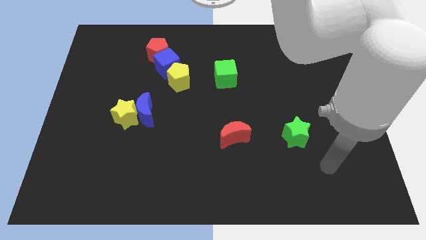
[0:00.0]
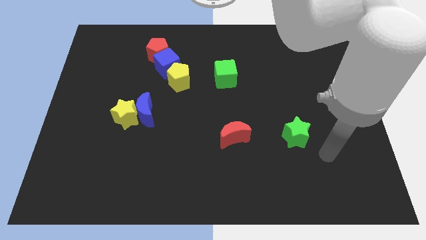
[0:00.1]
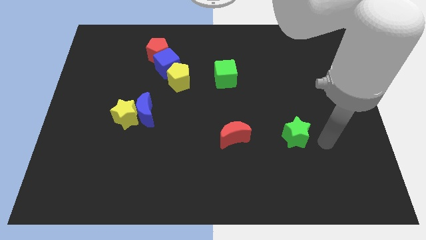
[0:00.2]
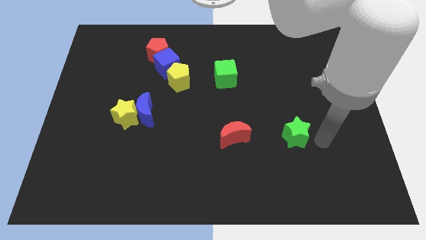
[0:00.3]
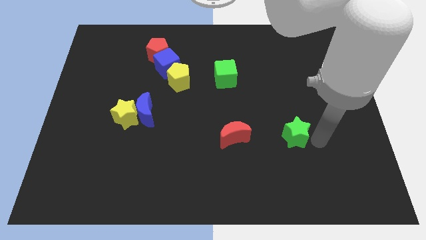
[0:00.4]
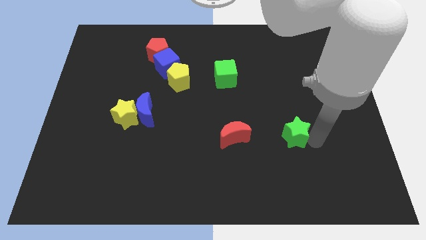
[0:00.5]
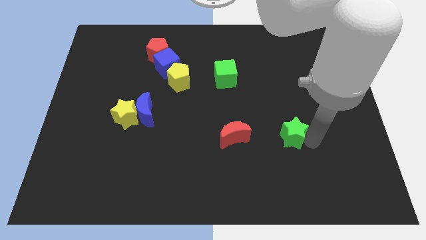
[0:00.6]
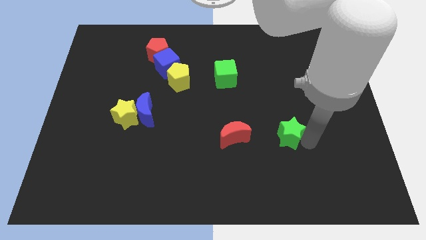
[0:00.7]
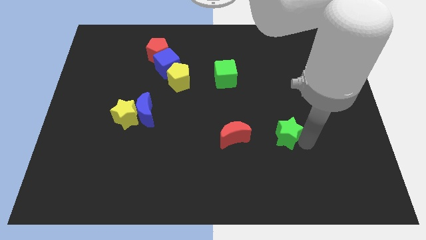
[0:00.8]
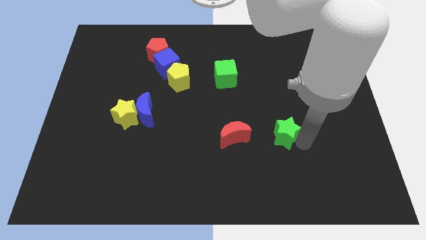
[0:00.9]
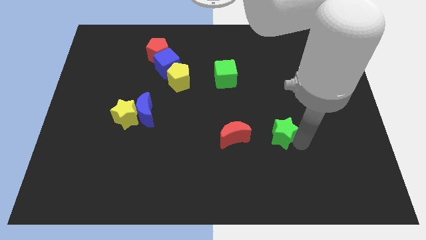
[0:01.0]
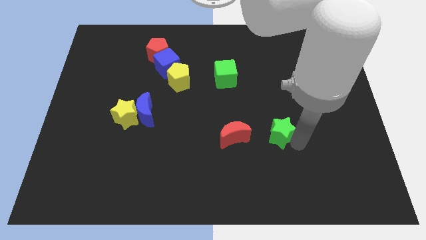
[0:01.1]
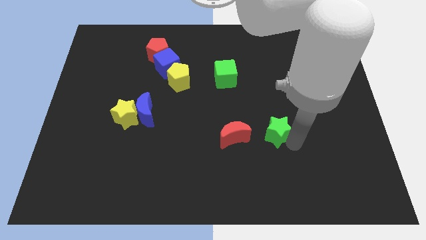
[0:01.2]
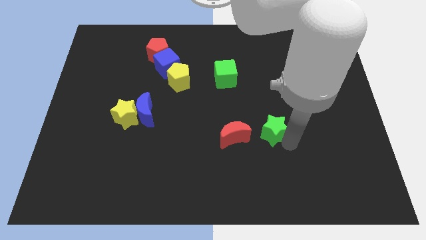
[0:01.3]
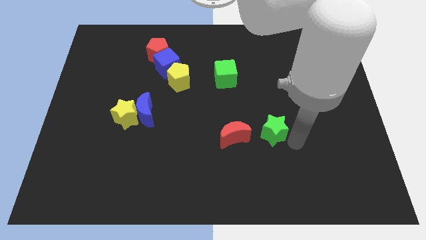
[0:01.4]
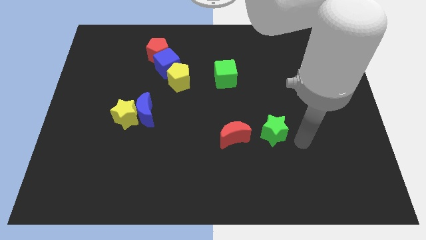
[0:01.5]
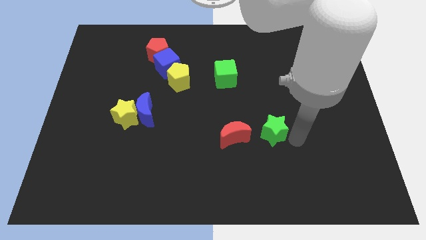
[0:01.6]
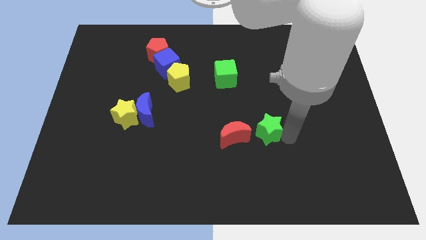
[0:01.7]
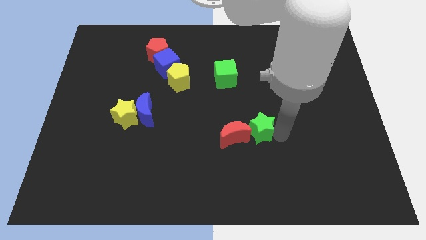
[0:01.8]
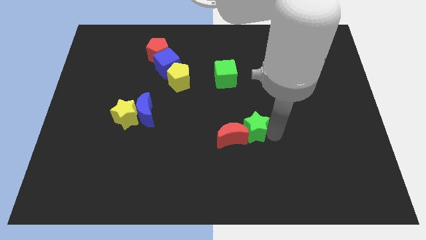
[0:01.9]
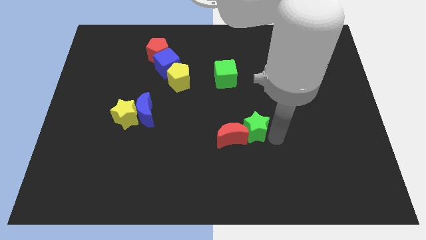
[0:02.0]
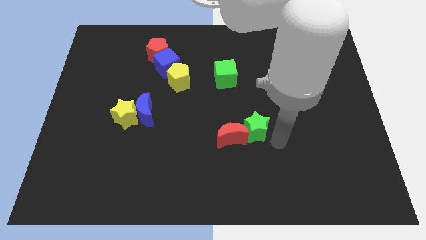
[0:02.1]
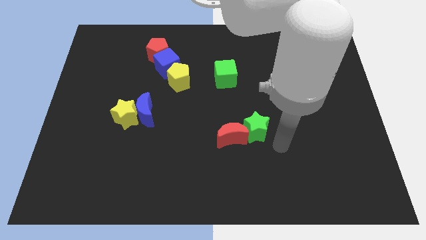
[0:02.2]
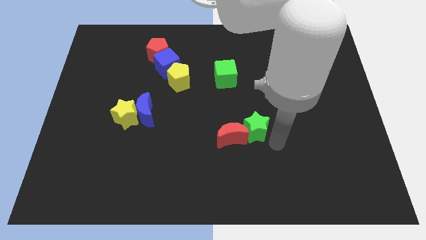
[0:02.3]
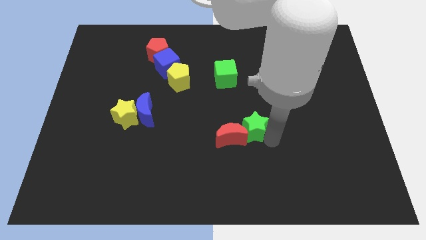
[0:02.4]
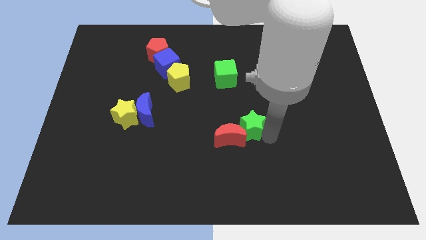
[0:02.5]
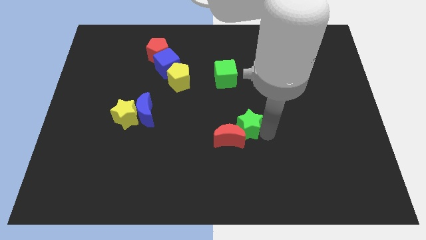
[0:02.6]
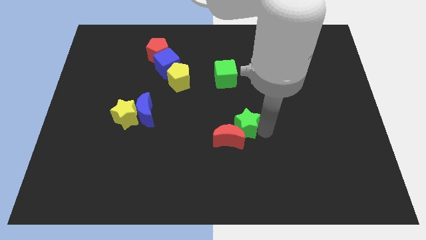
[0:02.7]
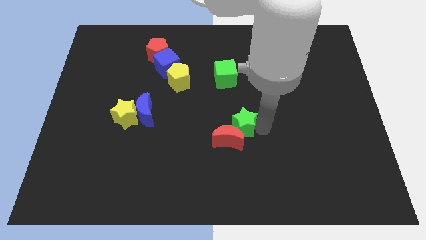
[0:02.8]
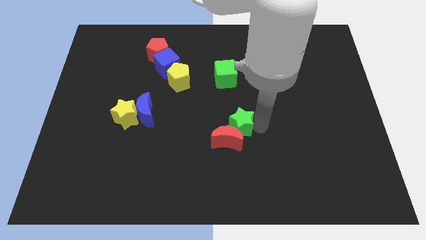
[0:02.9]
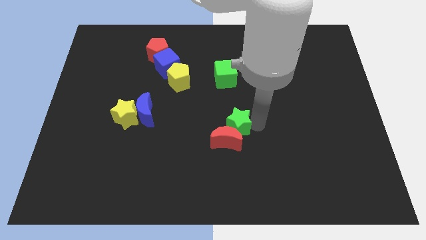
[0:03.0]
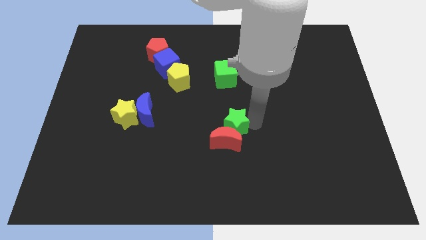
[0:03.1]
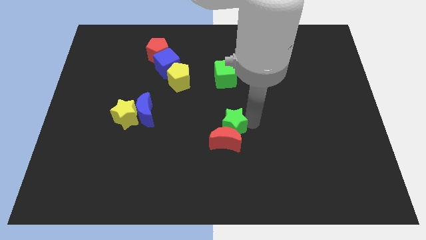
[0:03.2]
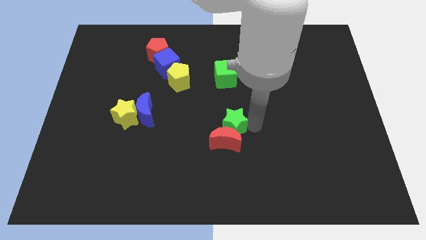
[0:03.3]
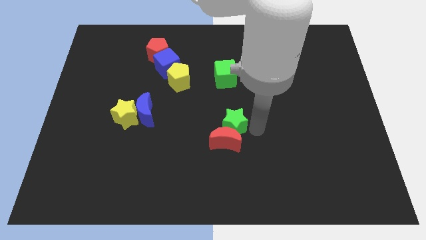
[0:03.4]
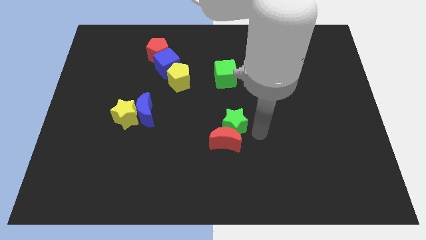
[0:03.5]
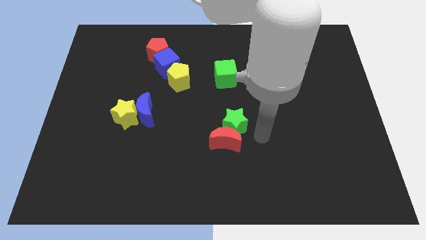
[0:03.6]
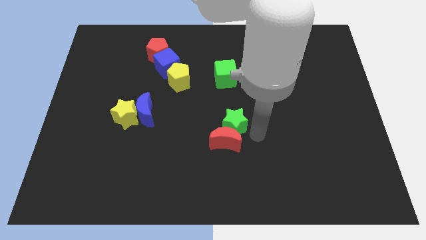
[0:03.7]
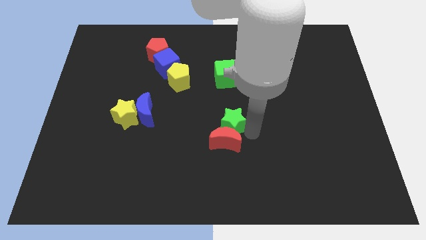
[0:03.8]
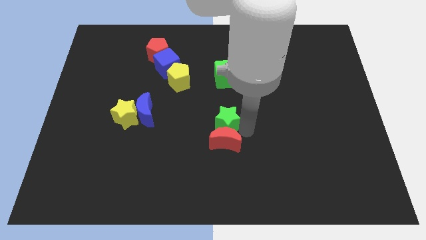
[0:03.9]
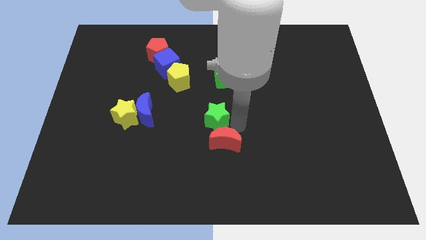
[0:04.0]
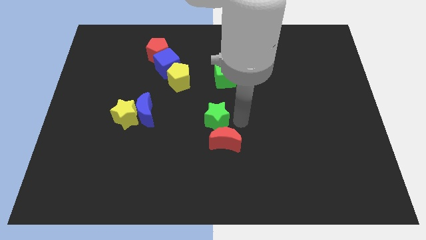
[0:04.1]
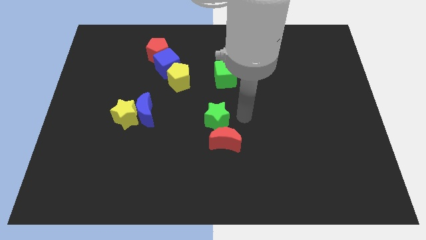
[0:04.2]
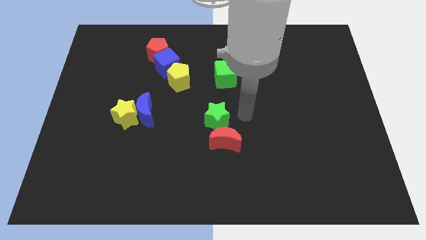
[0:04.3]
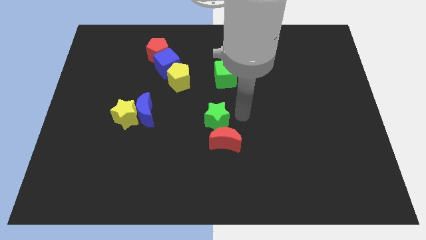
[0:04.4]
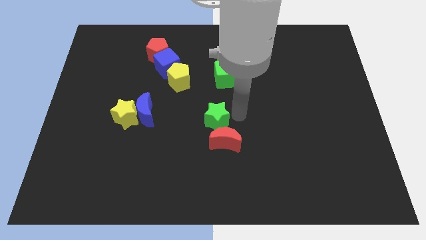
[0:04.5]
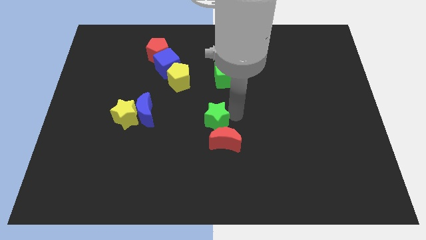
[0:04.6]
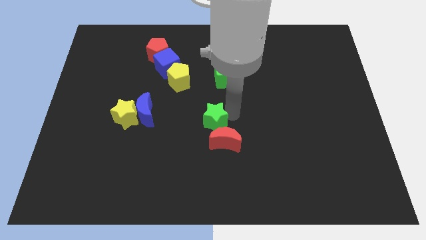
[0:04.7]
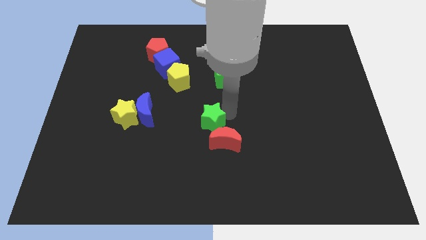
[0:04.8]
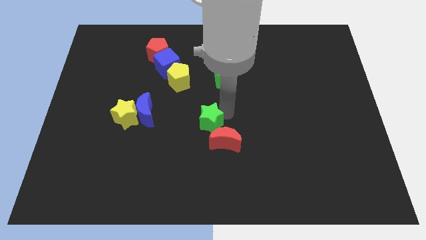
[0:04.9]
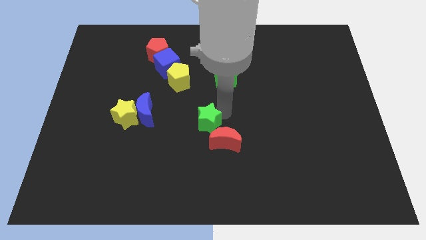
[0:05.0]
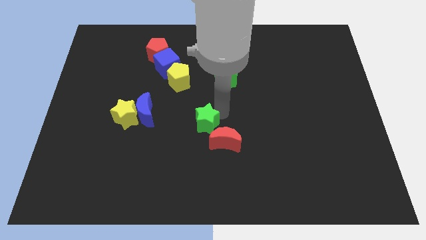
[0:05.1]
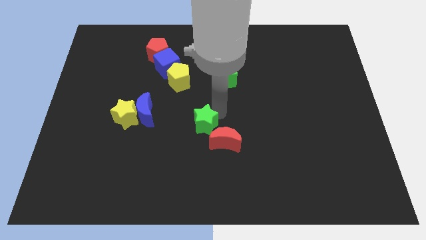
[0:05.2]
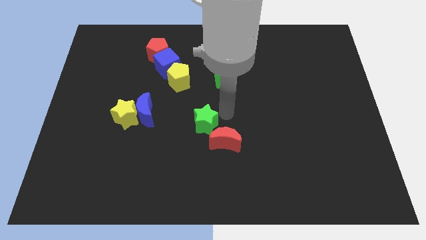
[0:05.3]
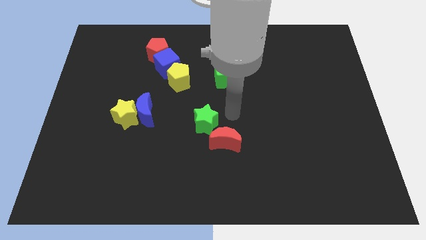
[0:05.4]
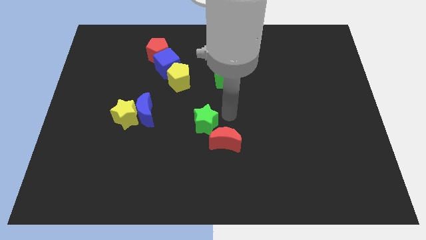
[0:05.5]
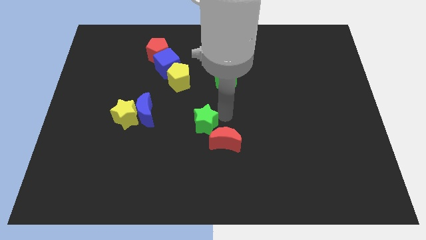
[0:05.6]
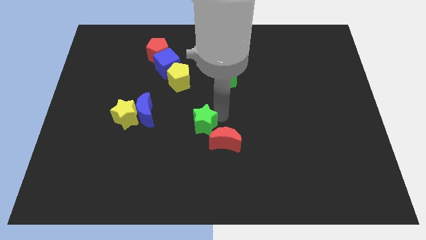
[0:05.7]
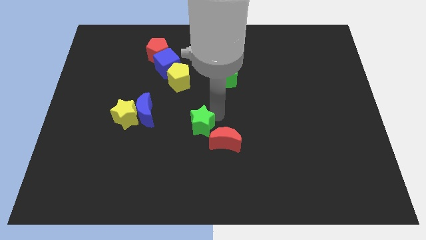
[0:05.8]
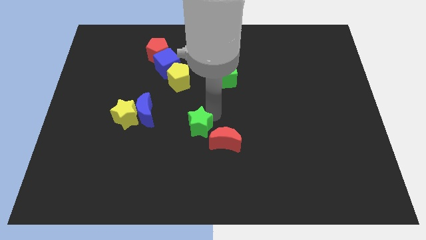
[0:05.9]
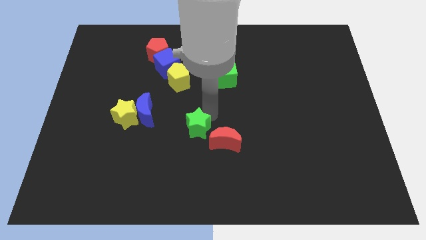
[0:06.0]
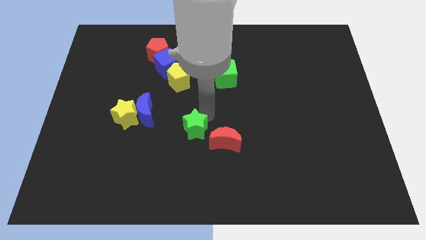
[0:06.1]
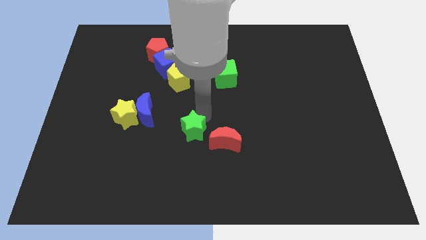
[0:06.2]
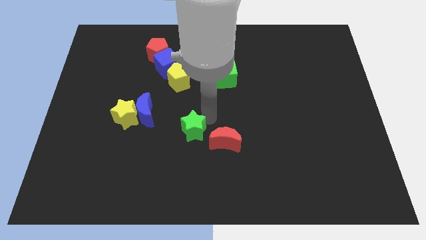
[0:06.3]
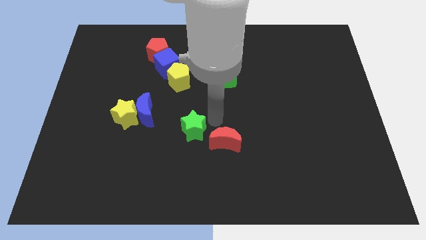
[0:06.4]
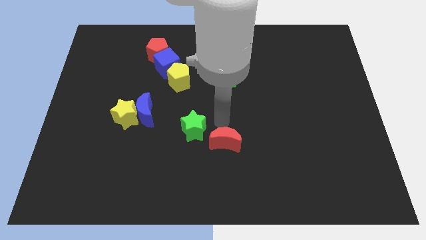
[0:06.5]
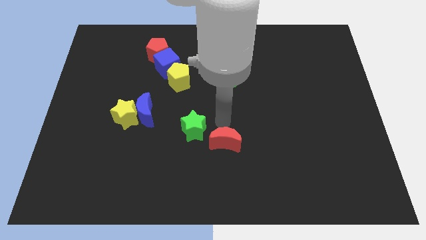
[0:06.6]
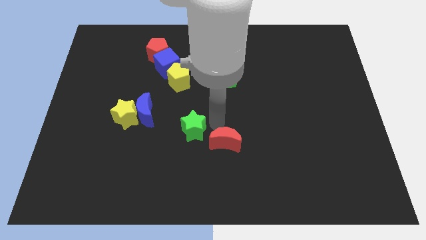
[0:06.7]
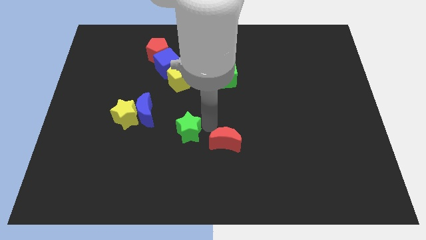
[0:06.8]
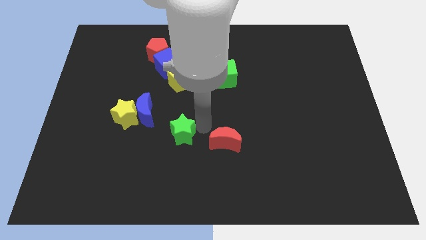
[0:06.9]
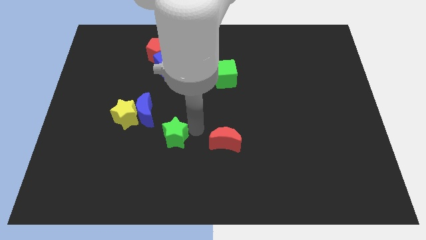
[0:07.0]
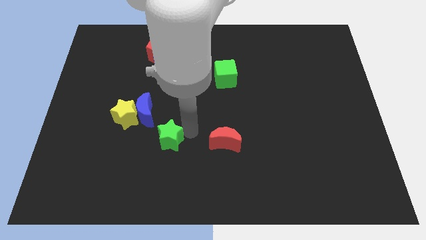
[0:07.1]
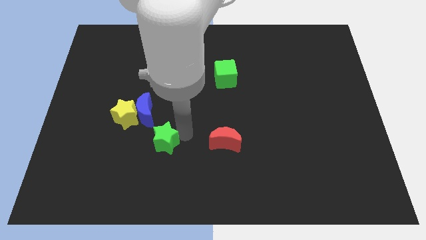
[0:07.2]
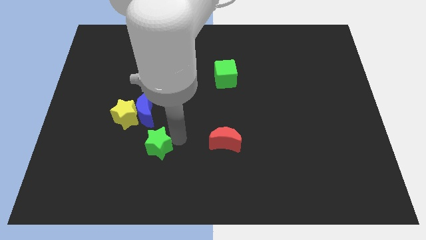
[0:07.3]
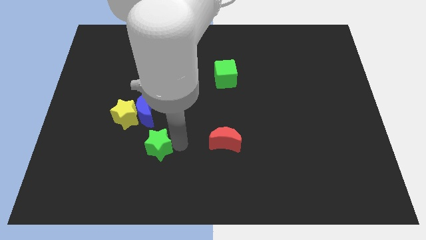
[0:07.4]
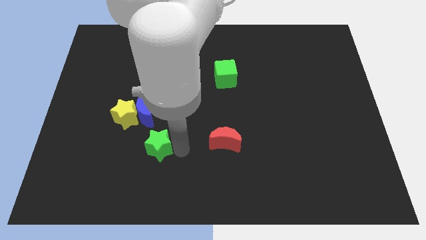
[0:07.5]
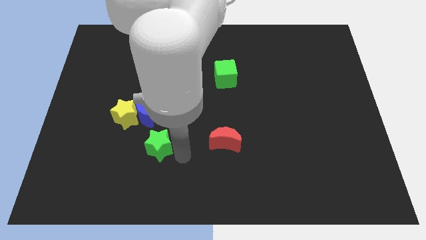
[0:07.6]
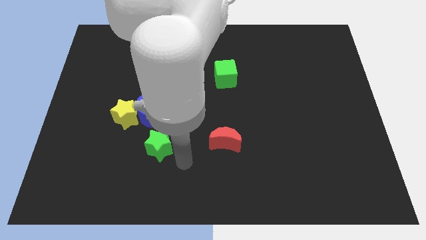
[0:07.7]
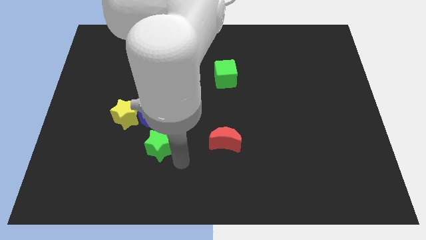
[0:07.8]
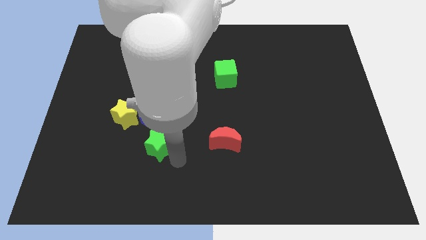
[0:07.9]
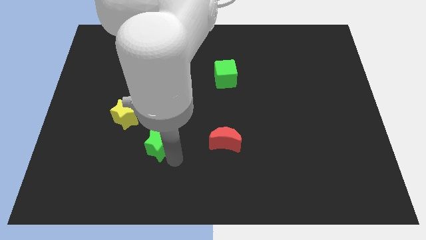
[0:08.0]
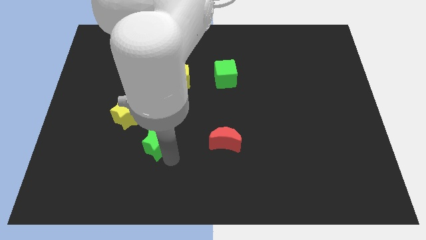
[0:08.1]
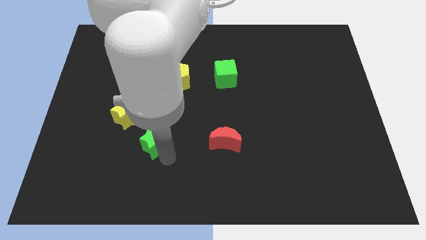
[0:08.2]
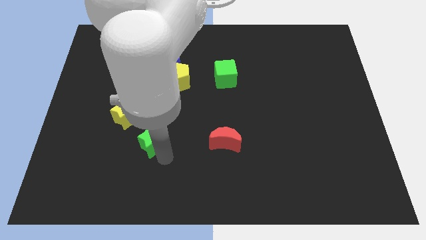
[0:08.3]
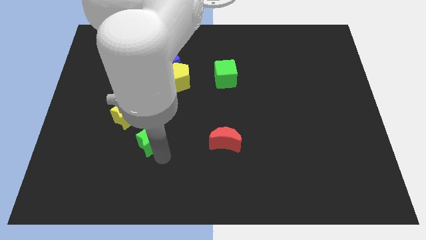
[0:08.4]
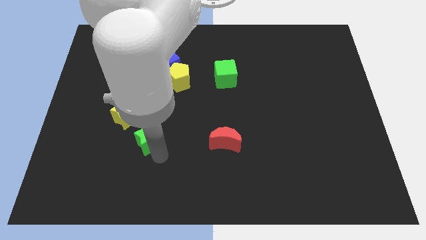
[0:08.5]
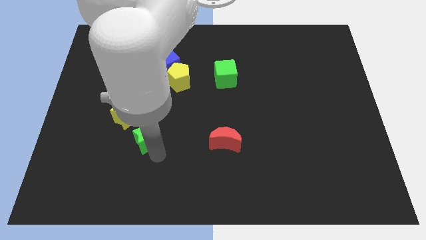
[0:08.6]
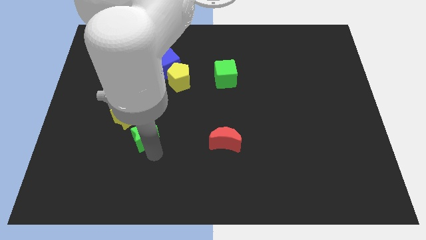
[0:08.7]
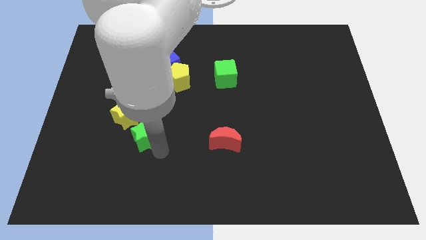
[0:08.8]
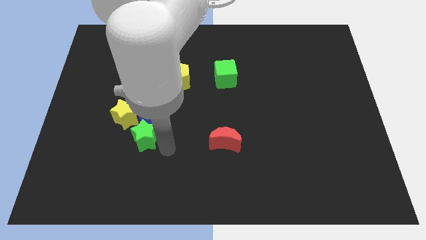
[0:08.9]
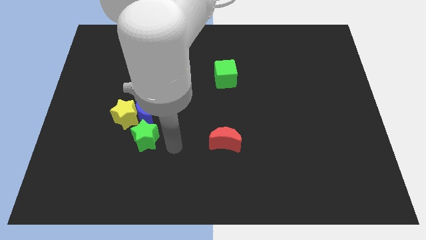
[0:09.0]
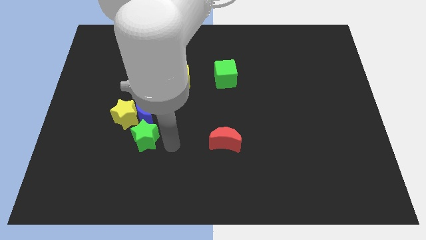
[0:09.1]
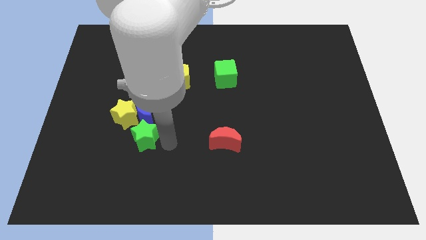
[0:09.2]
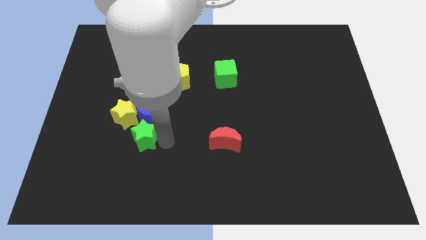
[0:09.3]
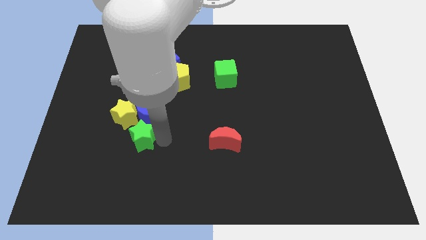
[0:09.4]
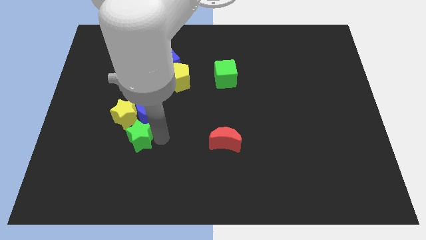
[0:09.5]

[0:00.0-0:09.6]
push the green star to the bottom left side of the blue moon
